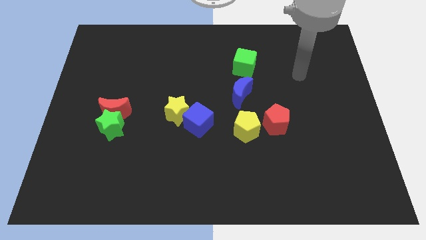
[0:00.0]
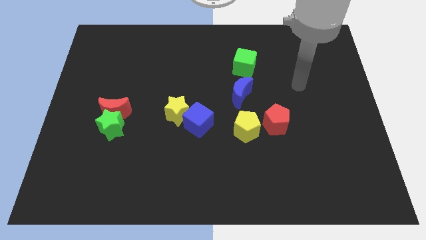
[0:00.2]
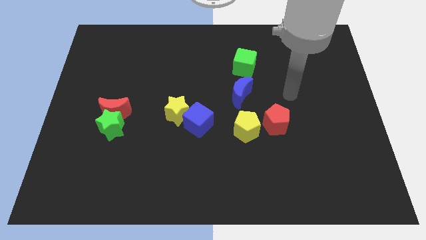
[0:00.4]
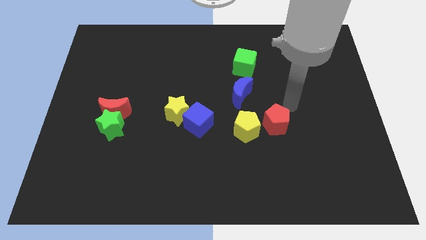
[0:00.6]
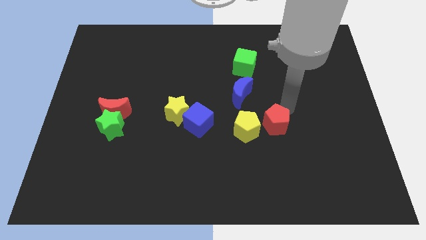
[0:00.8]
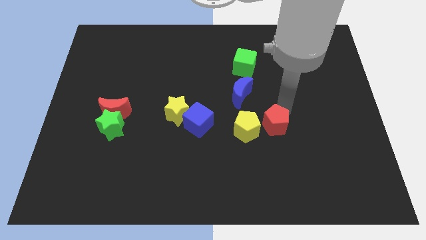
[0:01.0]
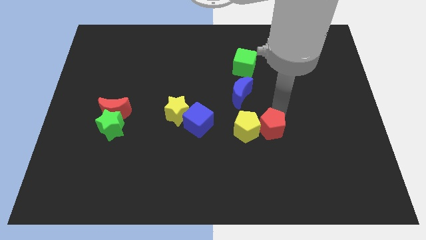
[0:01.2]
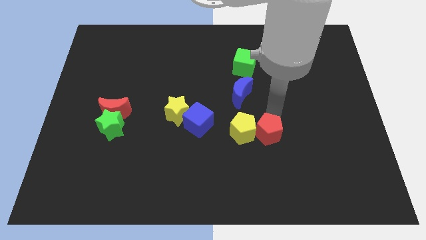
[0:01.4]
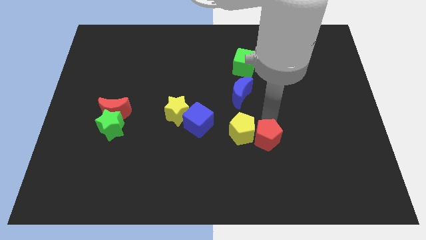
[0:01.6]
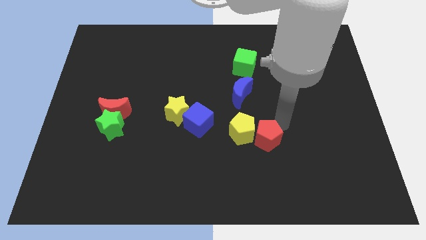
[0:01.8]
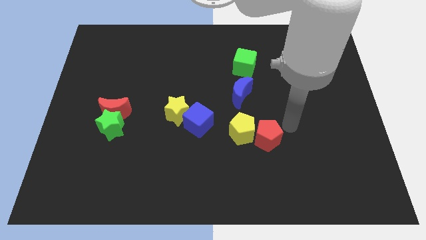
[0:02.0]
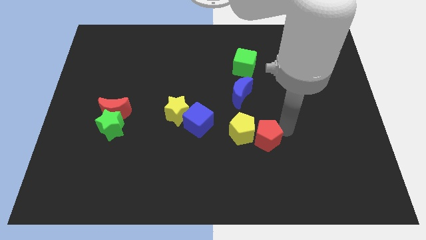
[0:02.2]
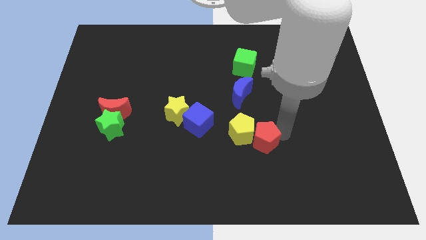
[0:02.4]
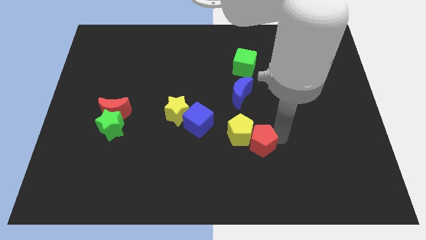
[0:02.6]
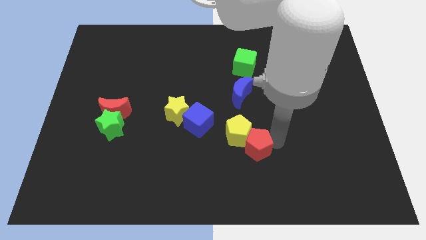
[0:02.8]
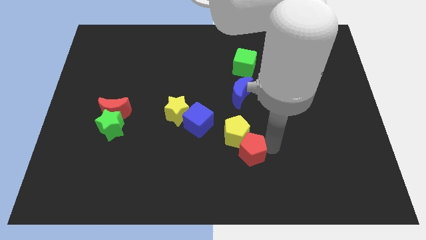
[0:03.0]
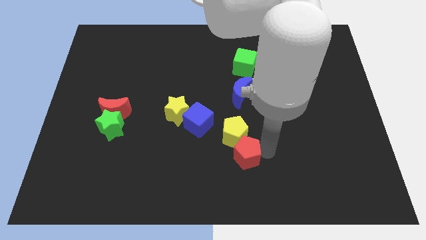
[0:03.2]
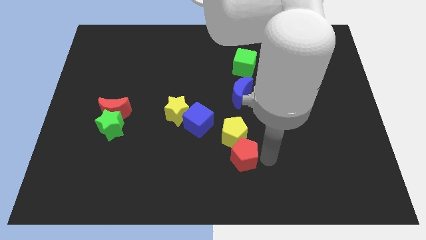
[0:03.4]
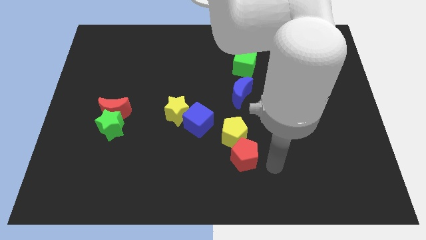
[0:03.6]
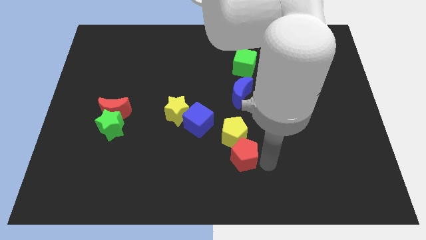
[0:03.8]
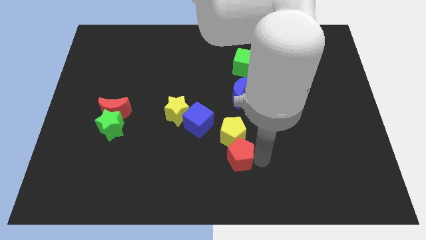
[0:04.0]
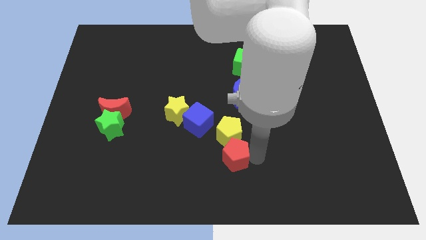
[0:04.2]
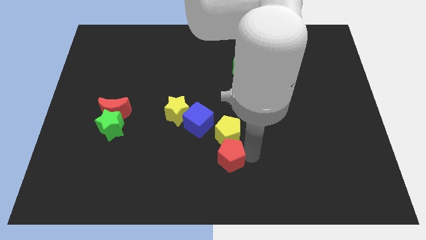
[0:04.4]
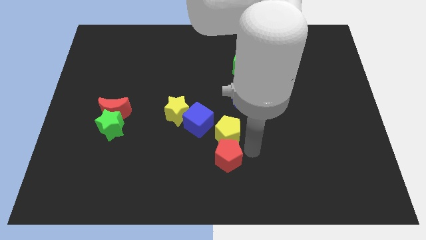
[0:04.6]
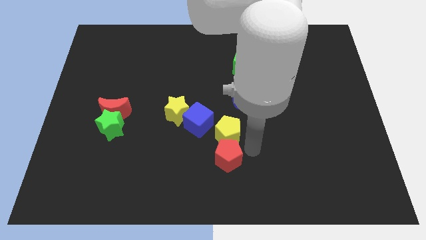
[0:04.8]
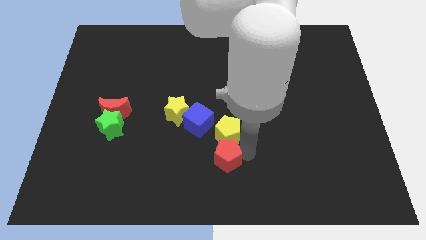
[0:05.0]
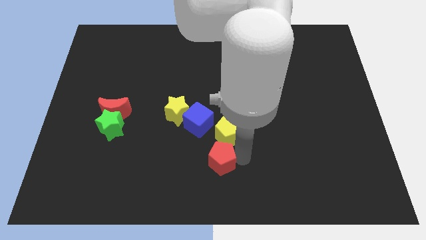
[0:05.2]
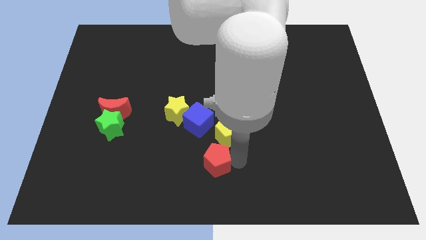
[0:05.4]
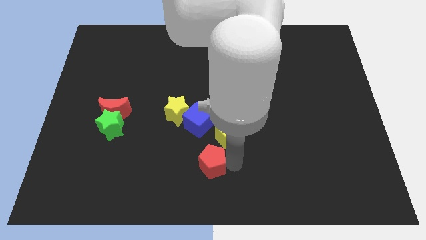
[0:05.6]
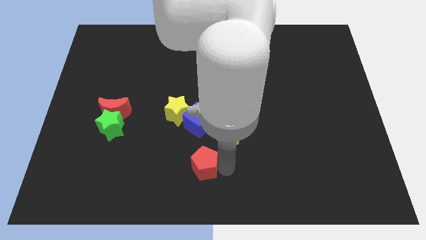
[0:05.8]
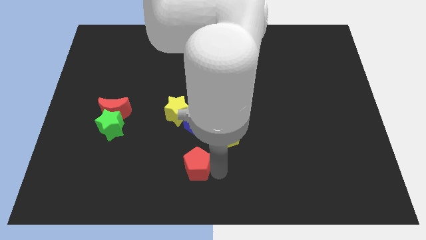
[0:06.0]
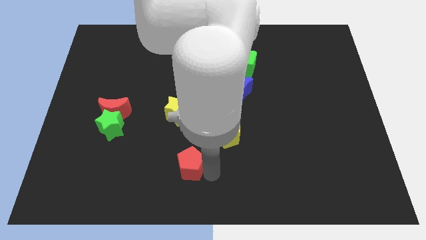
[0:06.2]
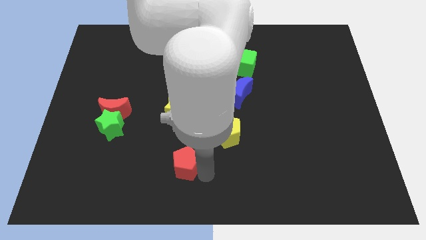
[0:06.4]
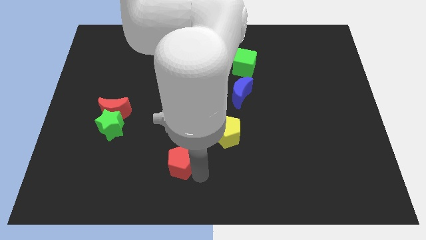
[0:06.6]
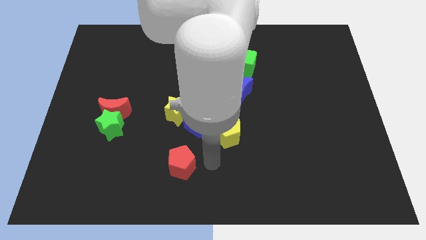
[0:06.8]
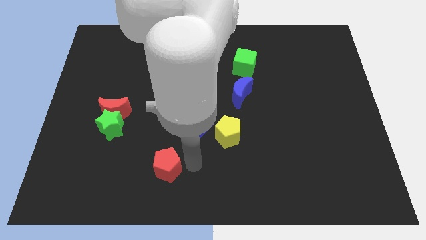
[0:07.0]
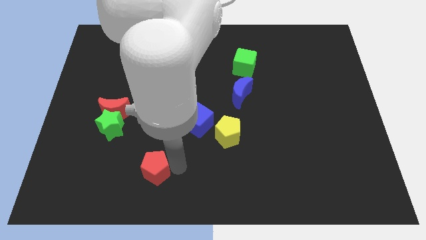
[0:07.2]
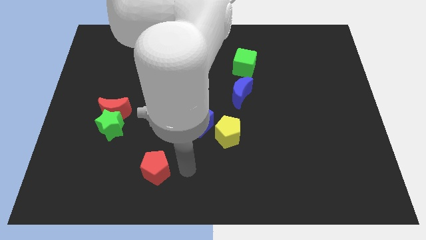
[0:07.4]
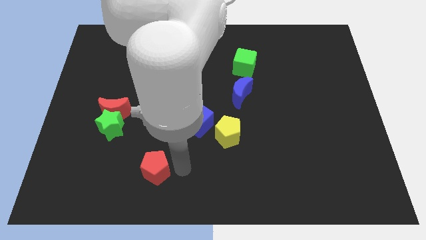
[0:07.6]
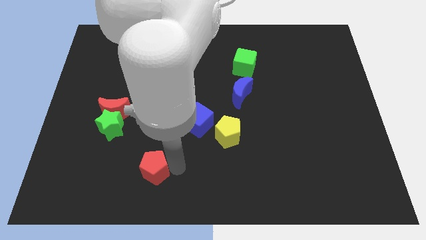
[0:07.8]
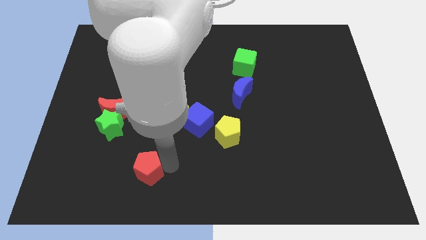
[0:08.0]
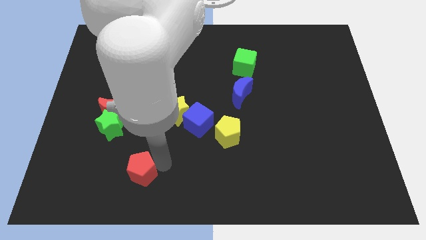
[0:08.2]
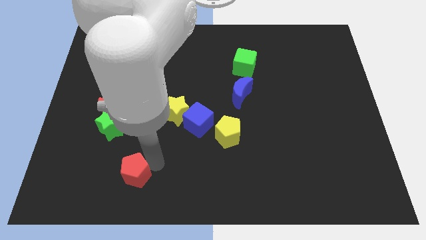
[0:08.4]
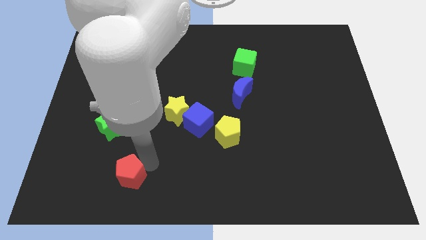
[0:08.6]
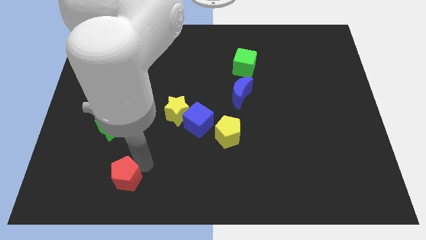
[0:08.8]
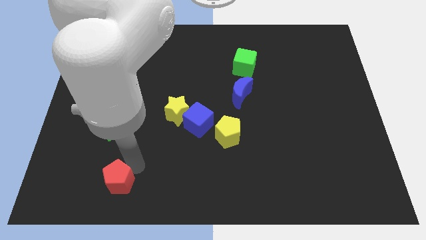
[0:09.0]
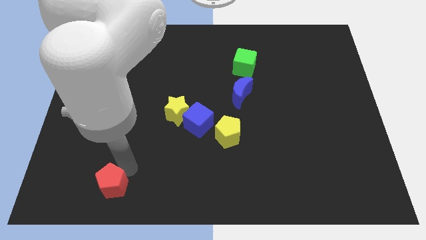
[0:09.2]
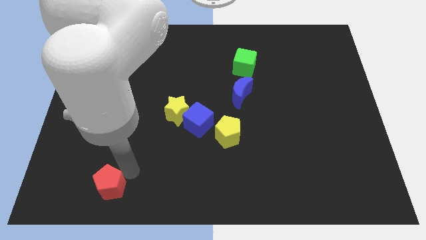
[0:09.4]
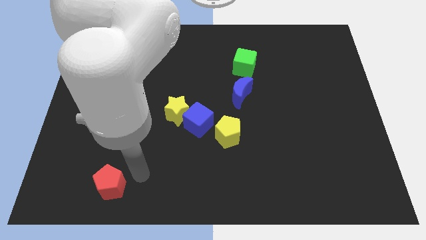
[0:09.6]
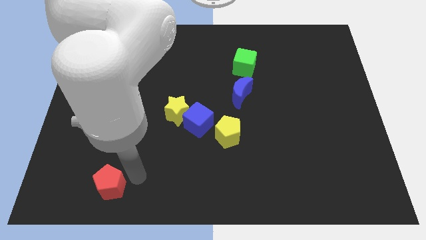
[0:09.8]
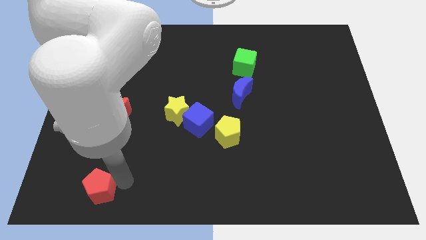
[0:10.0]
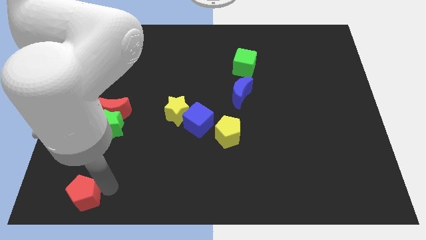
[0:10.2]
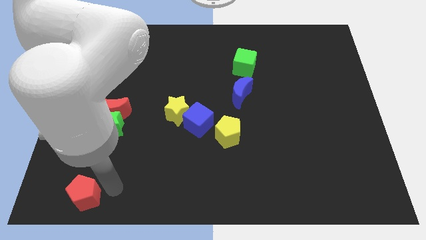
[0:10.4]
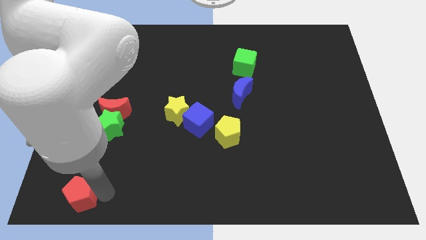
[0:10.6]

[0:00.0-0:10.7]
slide the red pentagon to the lower left corner

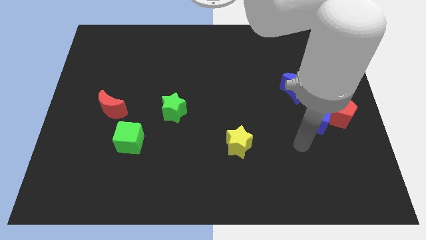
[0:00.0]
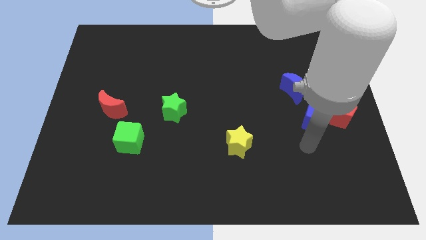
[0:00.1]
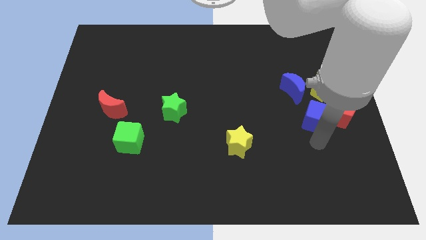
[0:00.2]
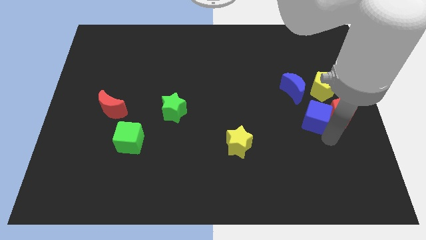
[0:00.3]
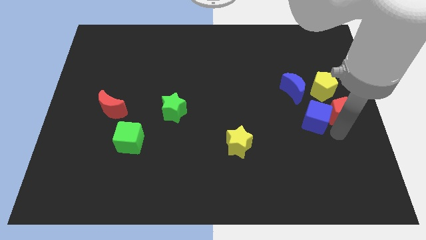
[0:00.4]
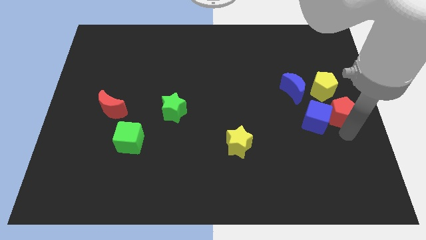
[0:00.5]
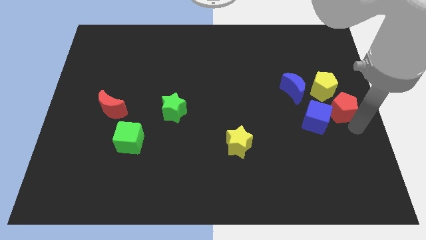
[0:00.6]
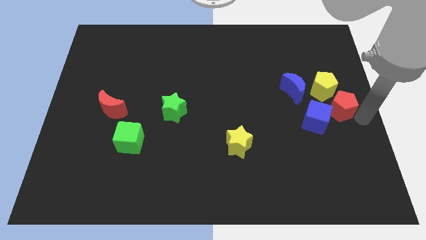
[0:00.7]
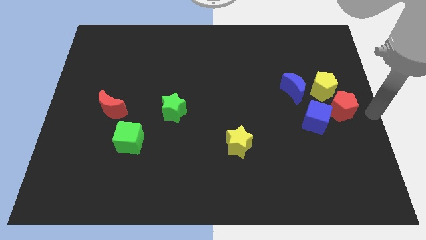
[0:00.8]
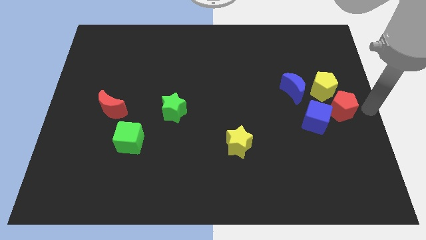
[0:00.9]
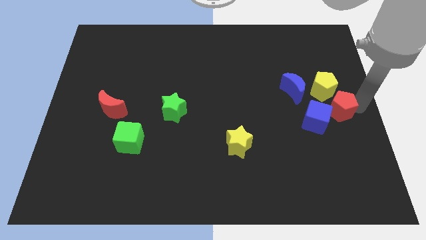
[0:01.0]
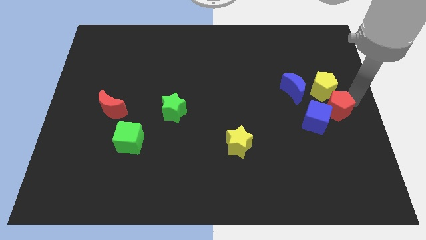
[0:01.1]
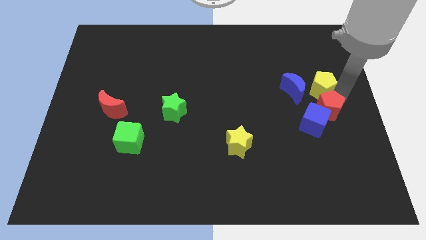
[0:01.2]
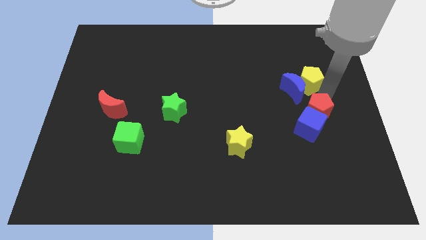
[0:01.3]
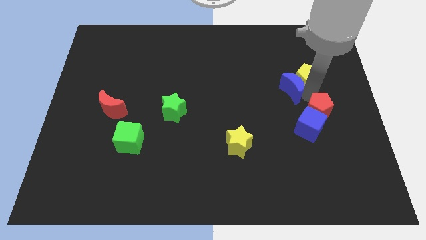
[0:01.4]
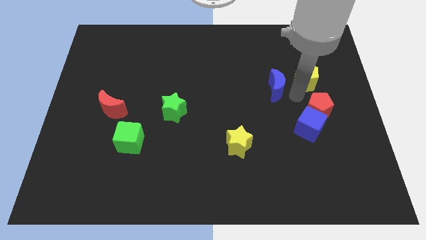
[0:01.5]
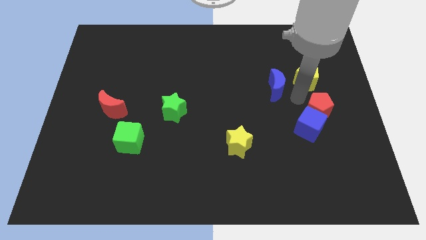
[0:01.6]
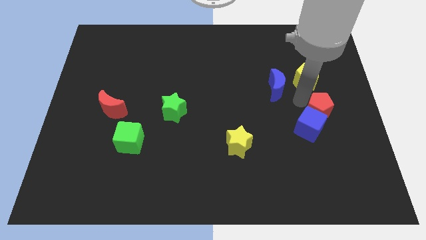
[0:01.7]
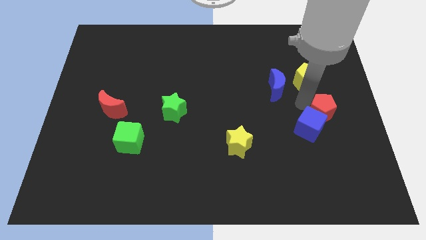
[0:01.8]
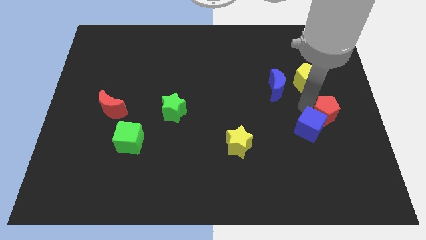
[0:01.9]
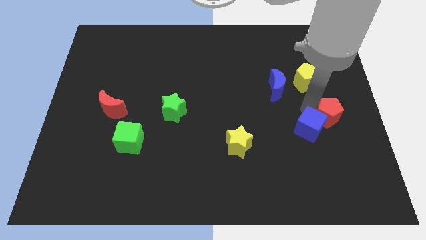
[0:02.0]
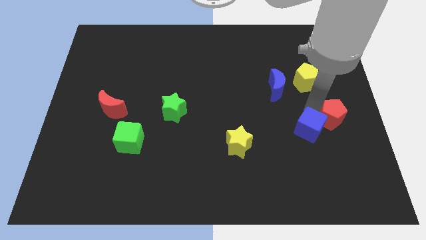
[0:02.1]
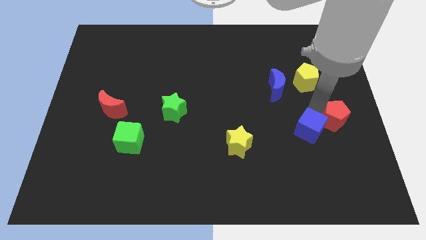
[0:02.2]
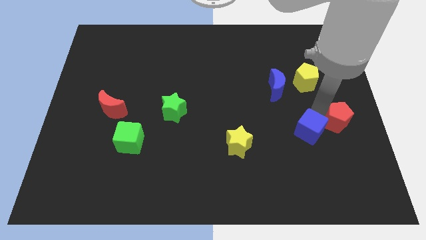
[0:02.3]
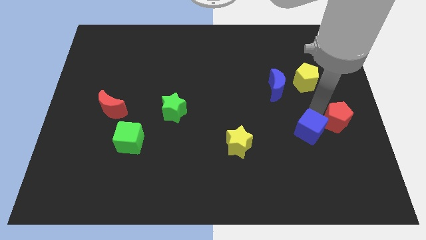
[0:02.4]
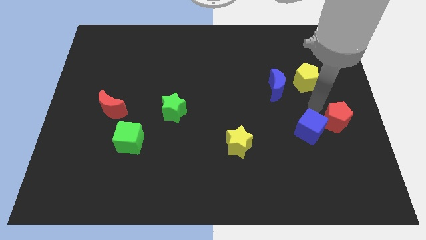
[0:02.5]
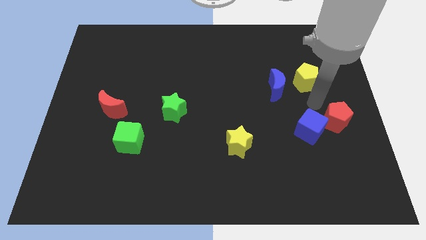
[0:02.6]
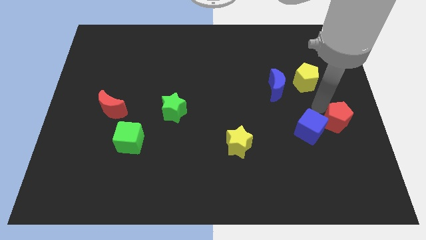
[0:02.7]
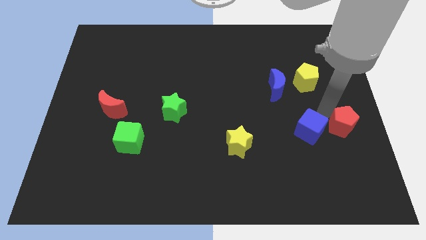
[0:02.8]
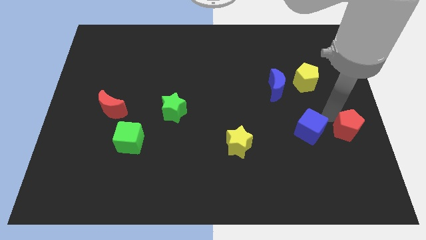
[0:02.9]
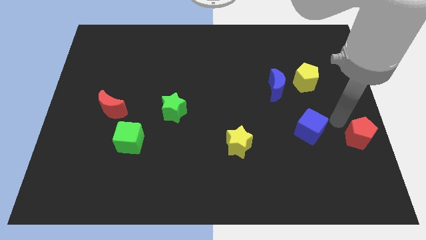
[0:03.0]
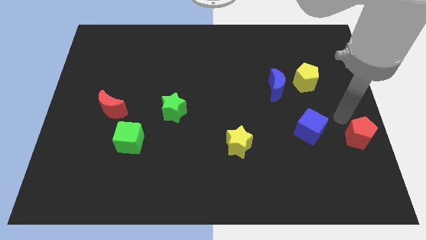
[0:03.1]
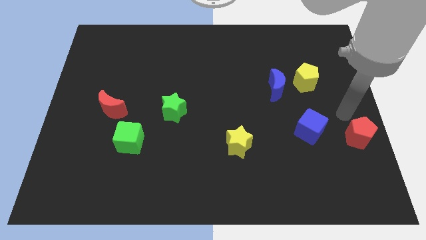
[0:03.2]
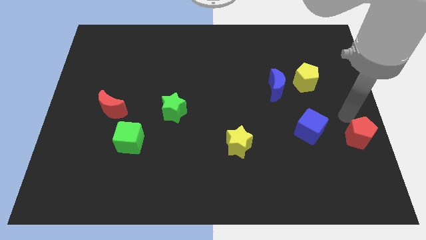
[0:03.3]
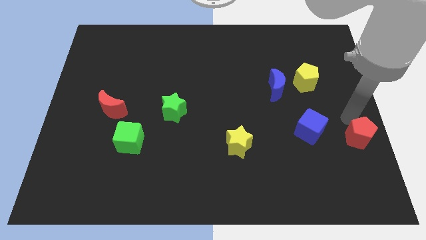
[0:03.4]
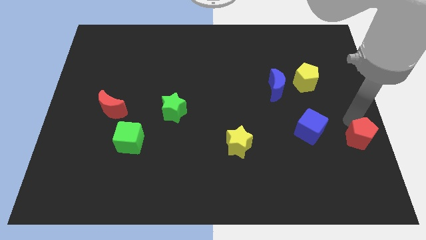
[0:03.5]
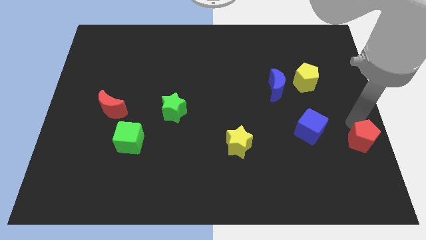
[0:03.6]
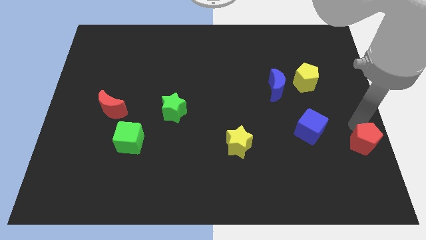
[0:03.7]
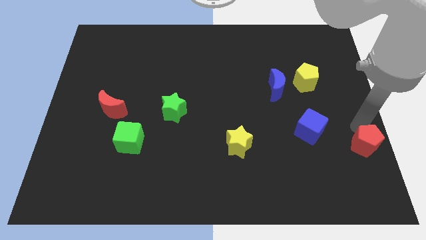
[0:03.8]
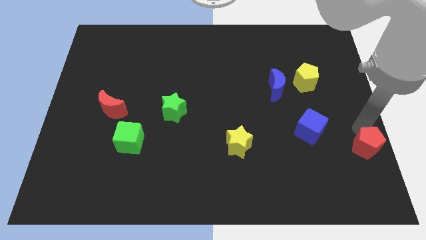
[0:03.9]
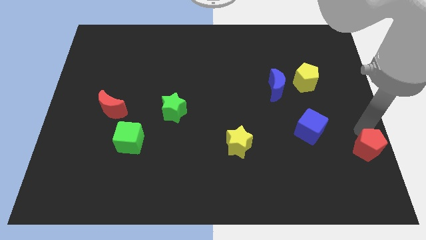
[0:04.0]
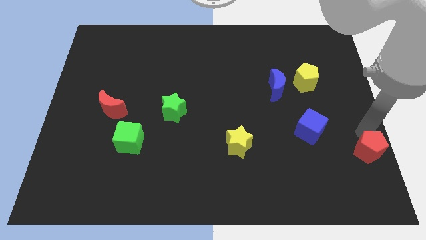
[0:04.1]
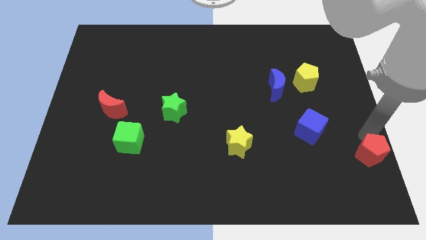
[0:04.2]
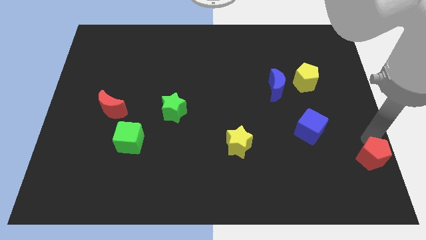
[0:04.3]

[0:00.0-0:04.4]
slide the red pentagon to the bottom right corner
